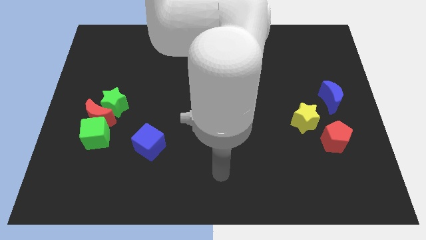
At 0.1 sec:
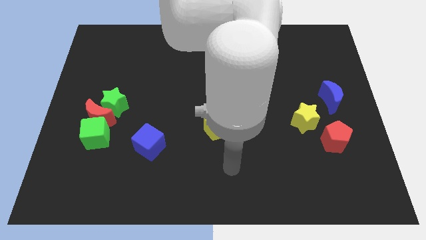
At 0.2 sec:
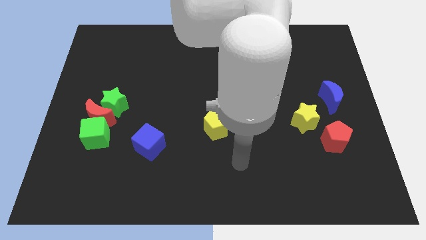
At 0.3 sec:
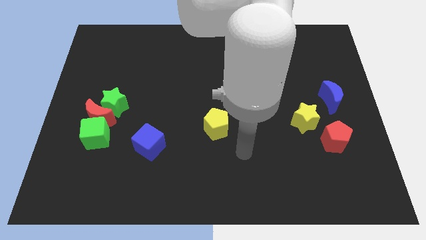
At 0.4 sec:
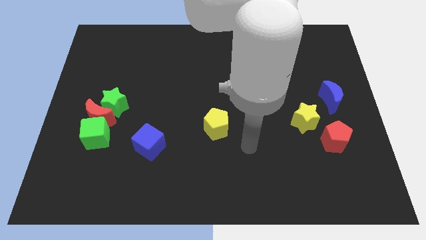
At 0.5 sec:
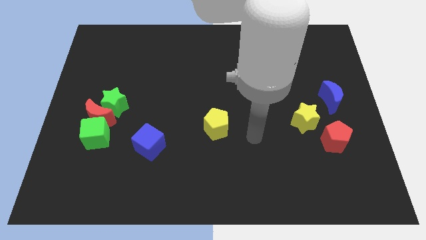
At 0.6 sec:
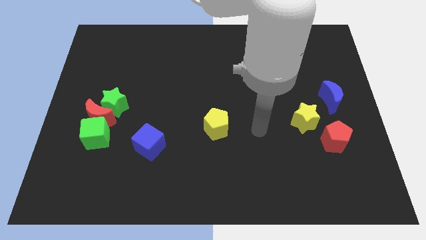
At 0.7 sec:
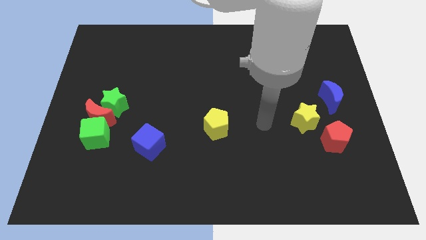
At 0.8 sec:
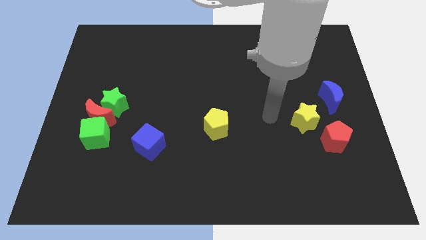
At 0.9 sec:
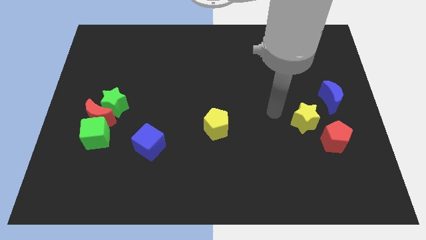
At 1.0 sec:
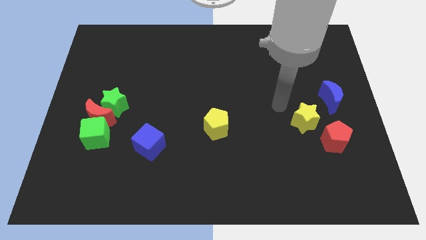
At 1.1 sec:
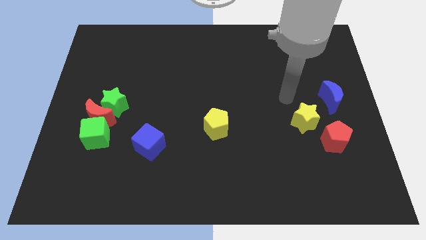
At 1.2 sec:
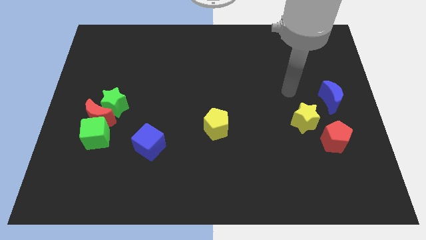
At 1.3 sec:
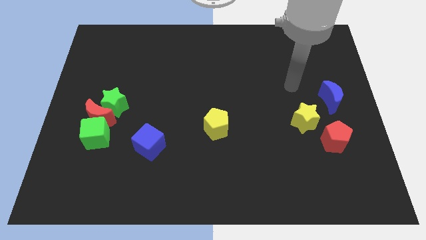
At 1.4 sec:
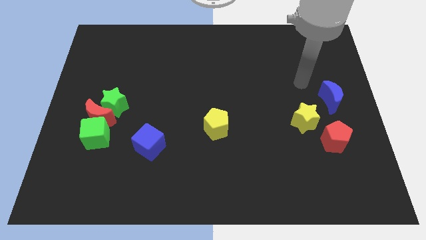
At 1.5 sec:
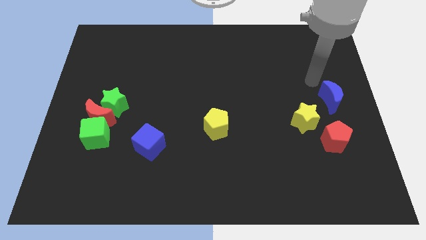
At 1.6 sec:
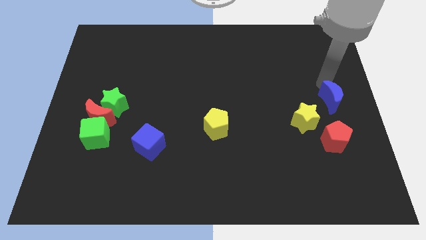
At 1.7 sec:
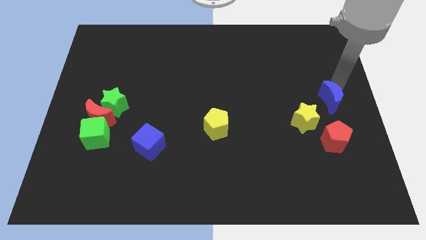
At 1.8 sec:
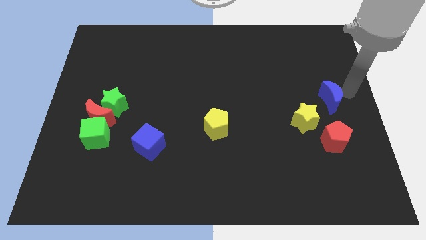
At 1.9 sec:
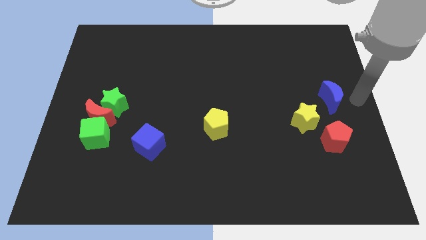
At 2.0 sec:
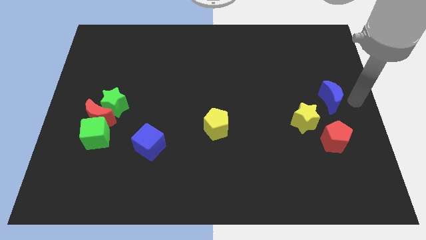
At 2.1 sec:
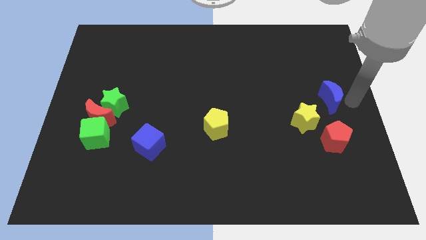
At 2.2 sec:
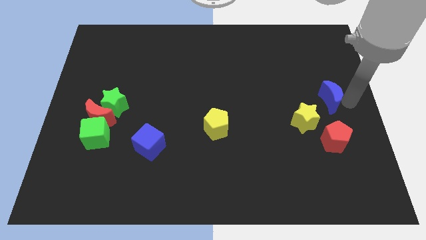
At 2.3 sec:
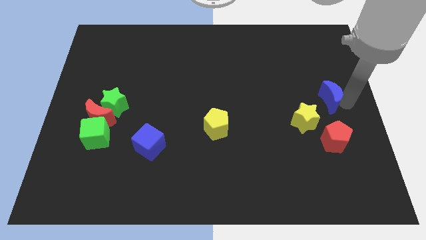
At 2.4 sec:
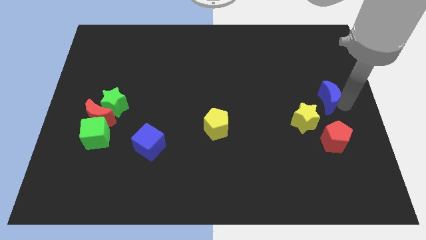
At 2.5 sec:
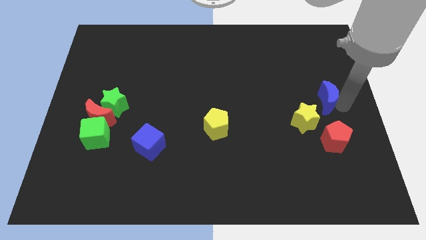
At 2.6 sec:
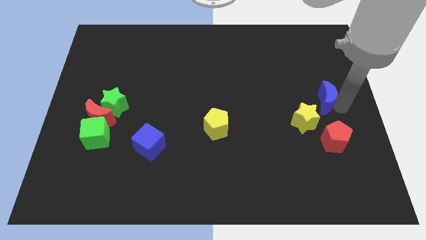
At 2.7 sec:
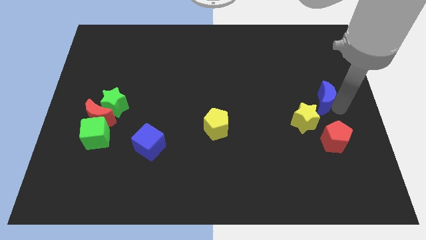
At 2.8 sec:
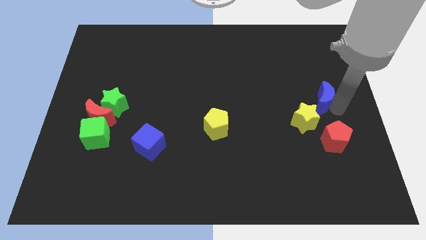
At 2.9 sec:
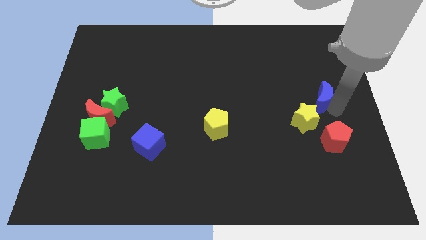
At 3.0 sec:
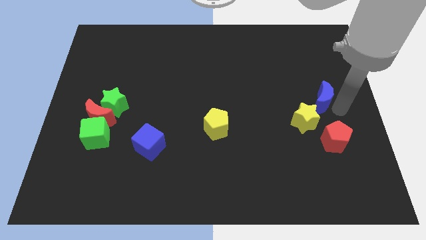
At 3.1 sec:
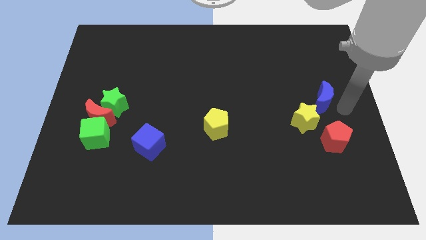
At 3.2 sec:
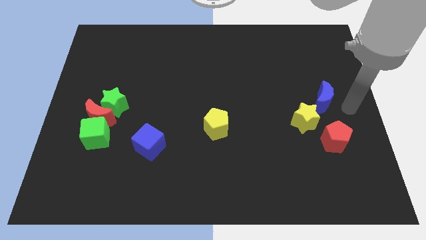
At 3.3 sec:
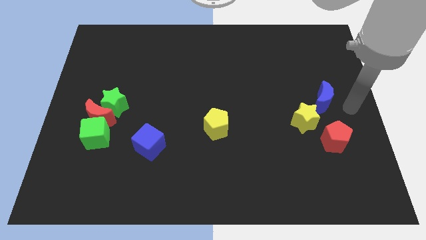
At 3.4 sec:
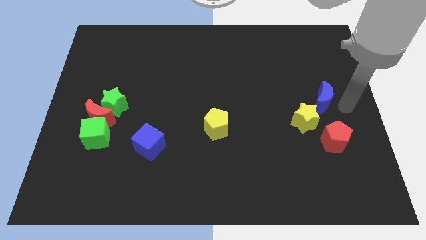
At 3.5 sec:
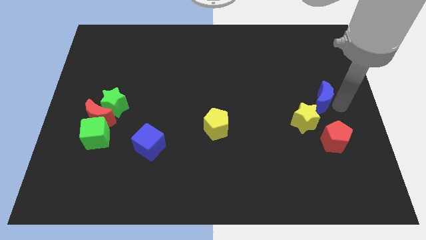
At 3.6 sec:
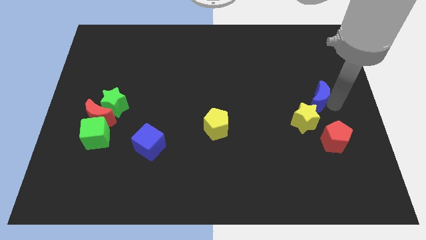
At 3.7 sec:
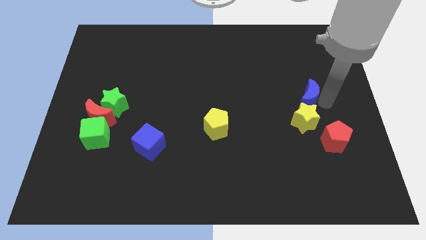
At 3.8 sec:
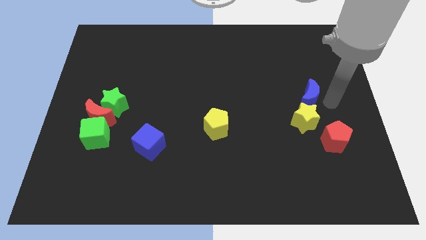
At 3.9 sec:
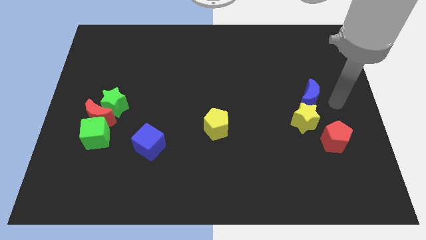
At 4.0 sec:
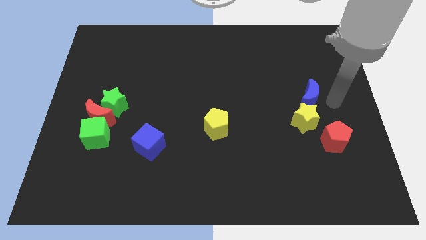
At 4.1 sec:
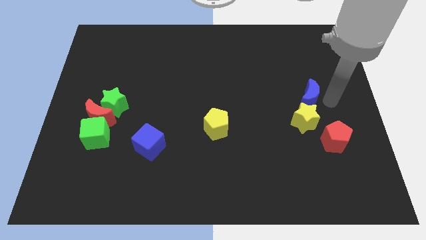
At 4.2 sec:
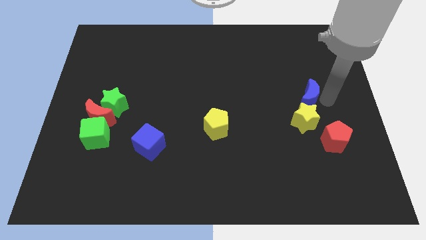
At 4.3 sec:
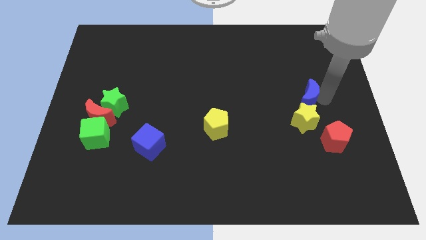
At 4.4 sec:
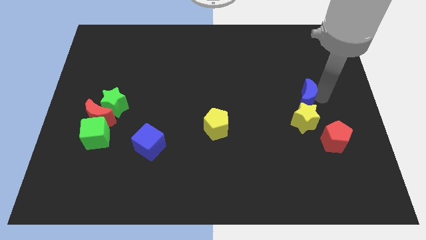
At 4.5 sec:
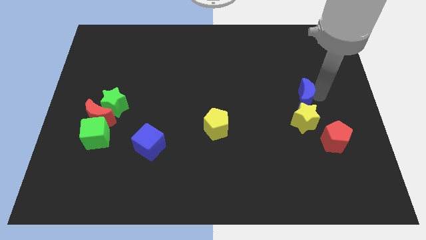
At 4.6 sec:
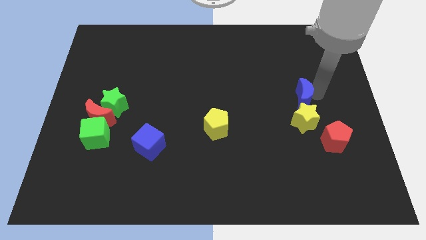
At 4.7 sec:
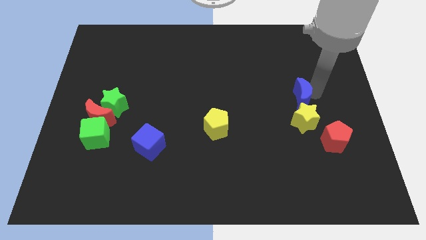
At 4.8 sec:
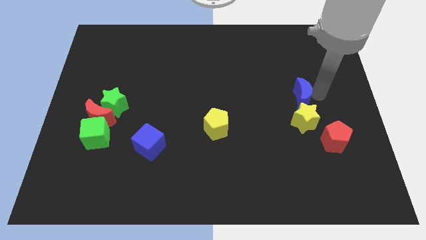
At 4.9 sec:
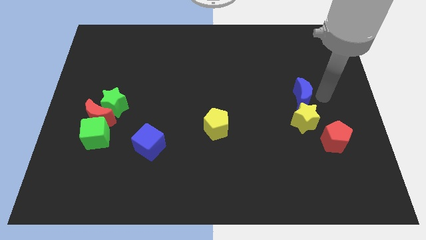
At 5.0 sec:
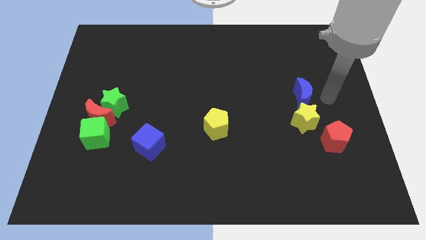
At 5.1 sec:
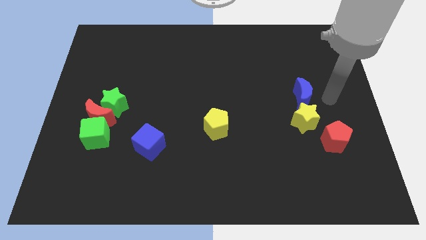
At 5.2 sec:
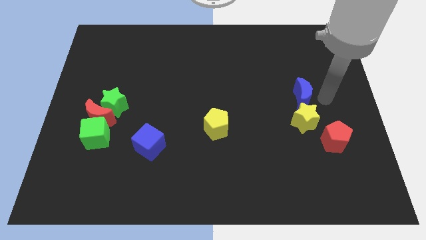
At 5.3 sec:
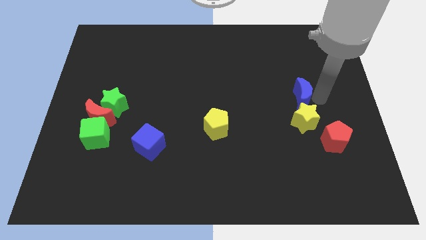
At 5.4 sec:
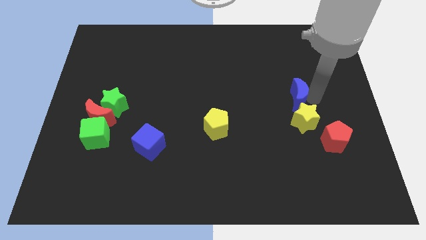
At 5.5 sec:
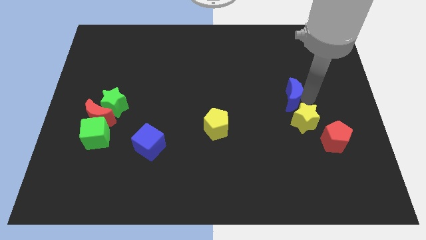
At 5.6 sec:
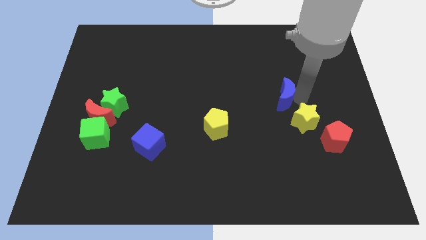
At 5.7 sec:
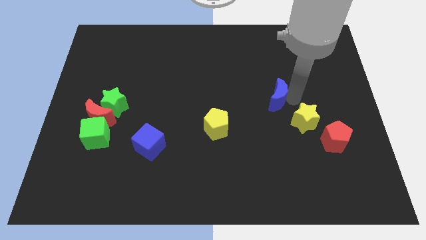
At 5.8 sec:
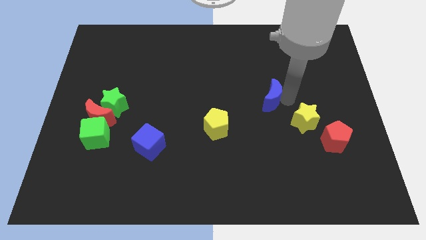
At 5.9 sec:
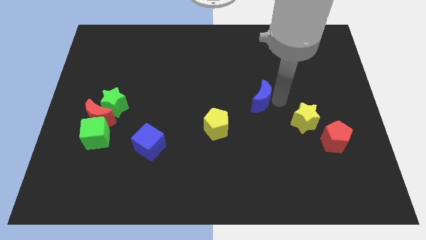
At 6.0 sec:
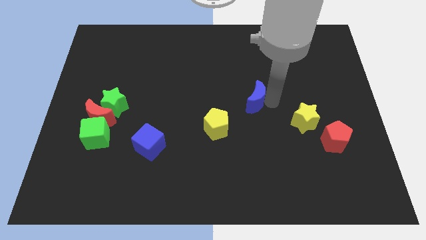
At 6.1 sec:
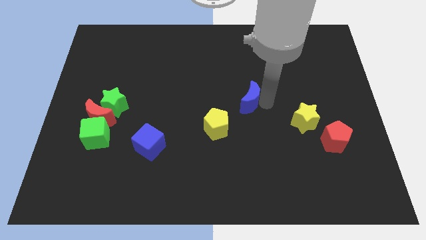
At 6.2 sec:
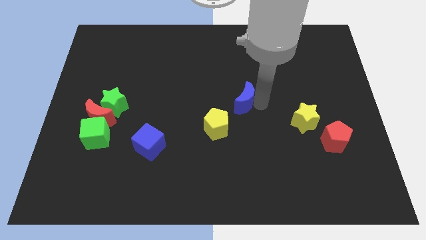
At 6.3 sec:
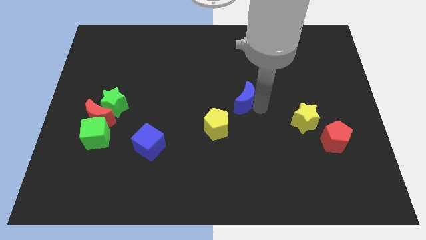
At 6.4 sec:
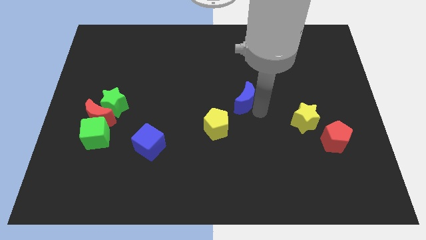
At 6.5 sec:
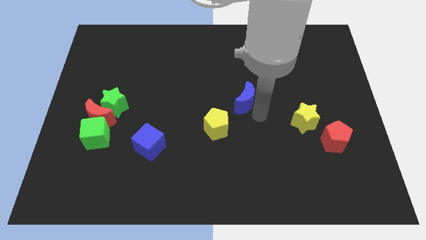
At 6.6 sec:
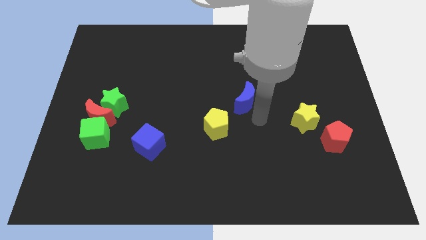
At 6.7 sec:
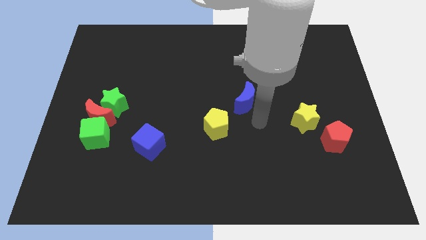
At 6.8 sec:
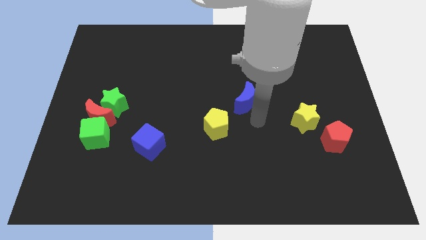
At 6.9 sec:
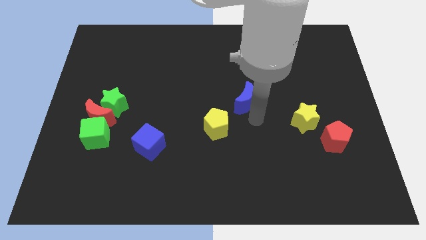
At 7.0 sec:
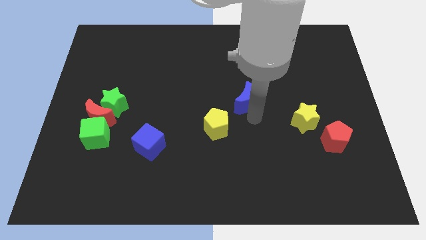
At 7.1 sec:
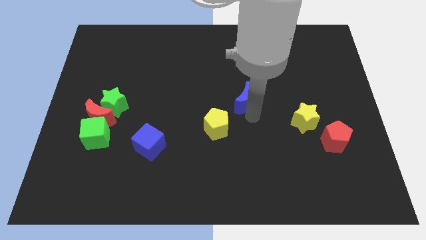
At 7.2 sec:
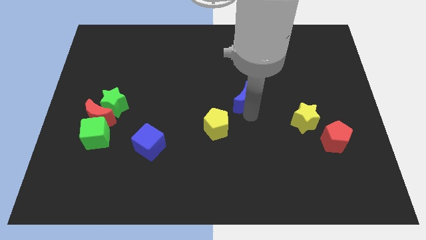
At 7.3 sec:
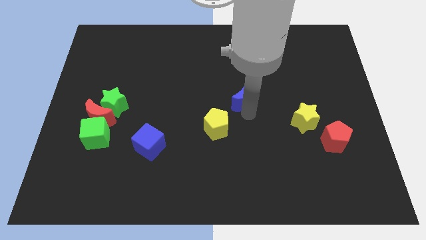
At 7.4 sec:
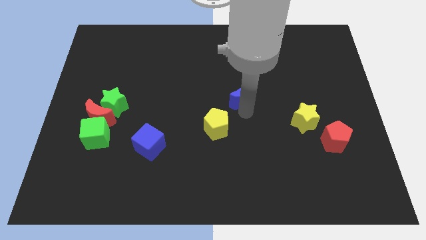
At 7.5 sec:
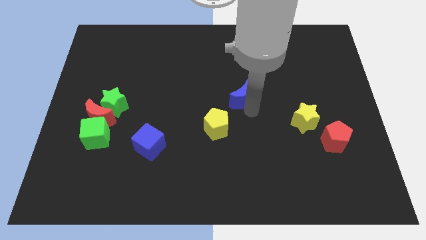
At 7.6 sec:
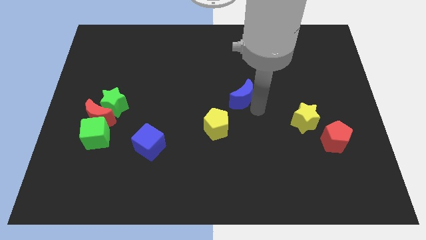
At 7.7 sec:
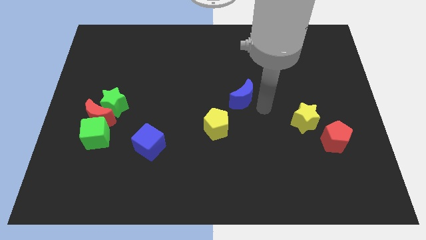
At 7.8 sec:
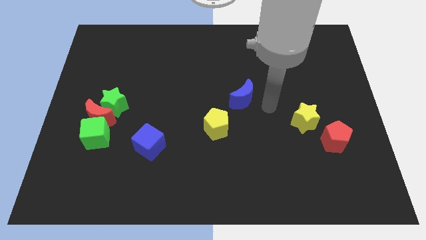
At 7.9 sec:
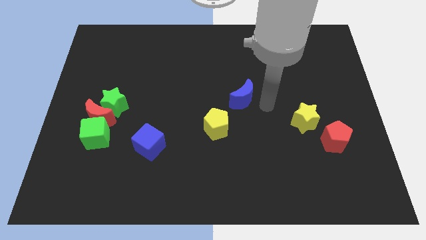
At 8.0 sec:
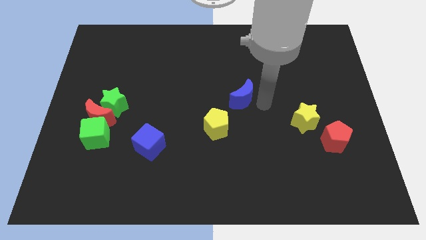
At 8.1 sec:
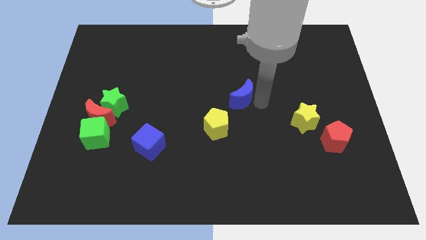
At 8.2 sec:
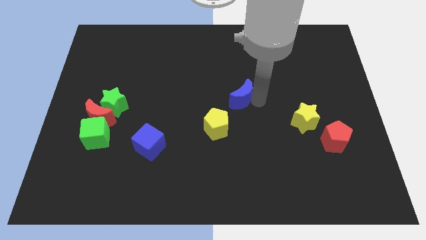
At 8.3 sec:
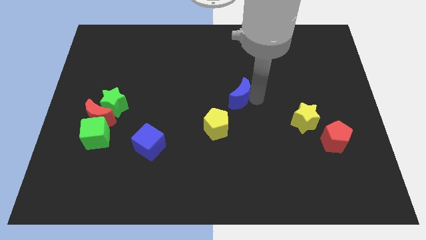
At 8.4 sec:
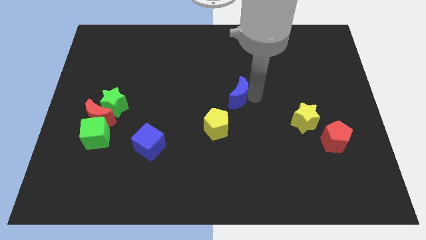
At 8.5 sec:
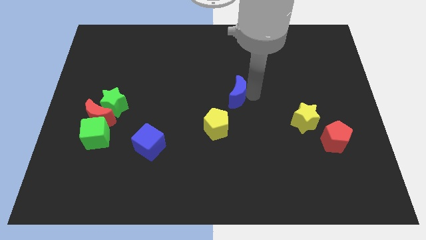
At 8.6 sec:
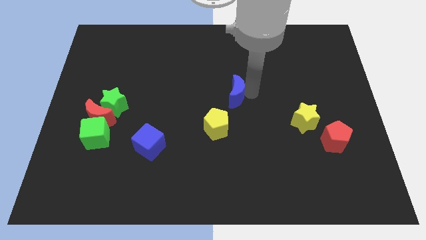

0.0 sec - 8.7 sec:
push the blue moon above the yellow pentagon
